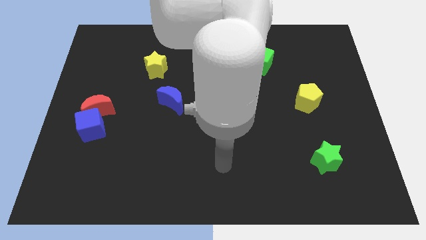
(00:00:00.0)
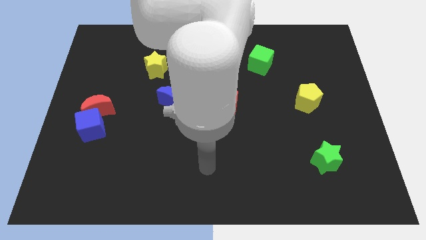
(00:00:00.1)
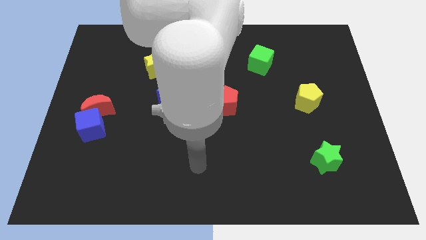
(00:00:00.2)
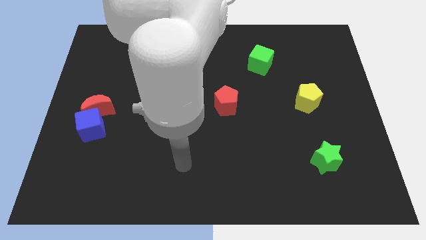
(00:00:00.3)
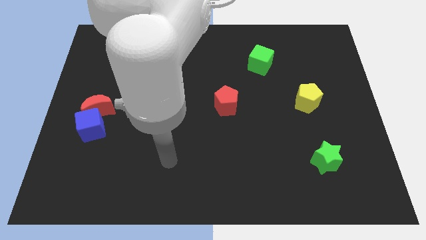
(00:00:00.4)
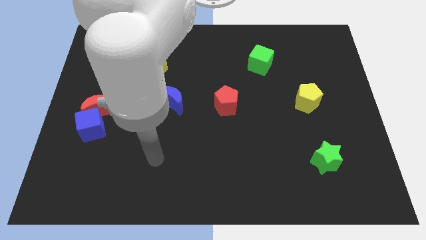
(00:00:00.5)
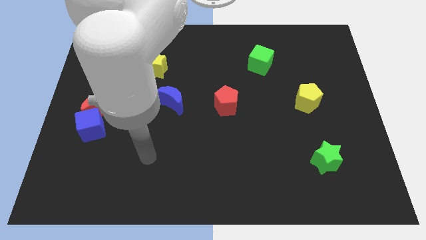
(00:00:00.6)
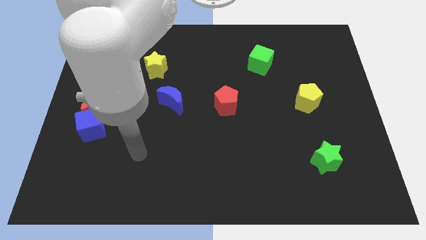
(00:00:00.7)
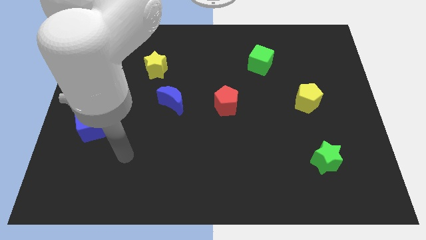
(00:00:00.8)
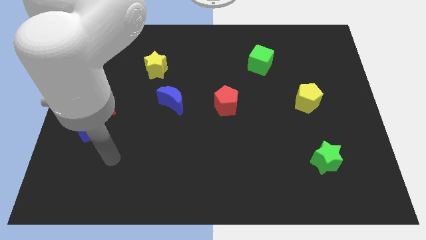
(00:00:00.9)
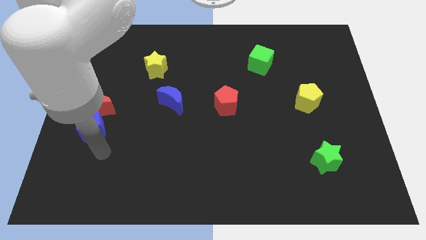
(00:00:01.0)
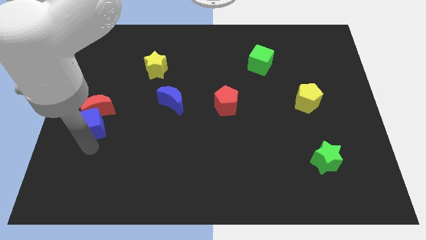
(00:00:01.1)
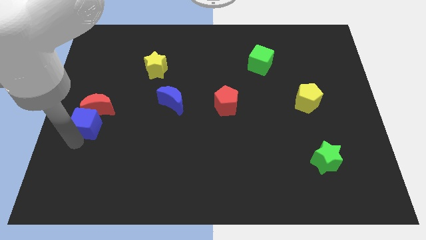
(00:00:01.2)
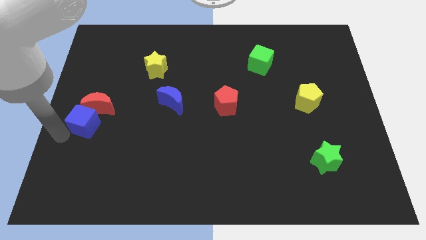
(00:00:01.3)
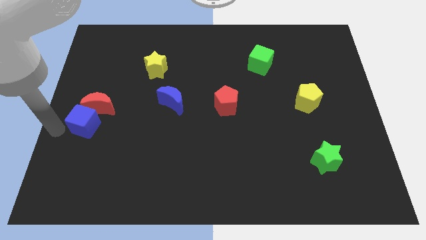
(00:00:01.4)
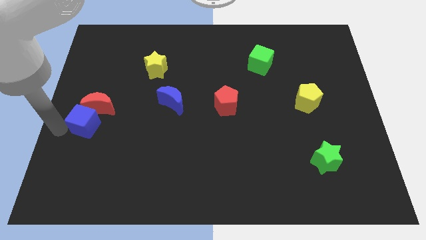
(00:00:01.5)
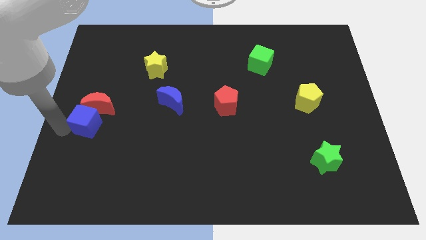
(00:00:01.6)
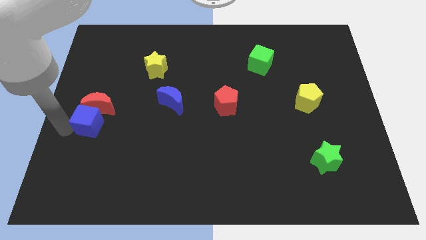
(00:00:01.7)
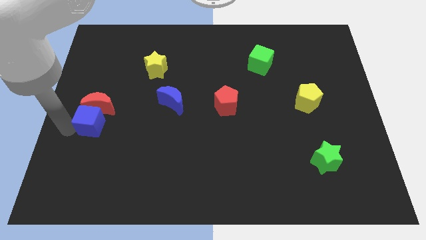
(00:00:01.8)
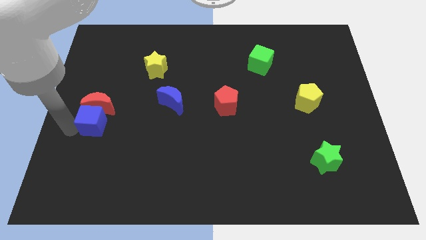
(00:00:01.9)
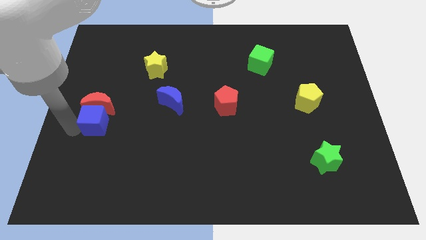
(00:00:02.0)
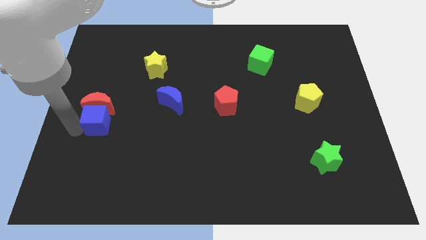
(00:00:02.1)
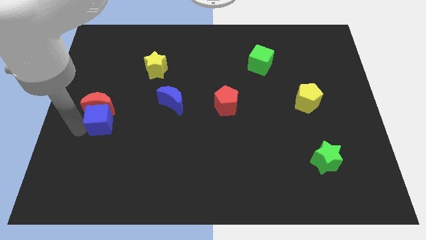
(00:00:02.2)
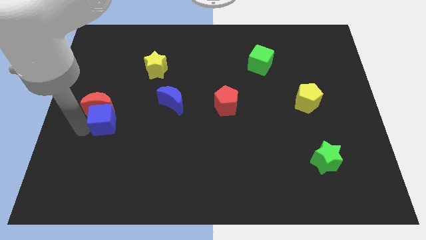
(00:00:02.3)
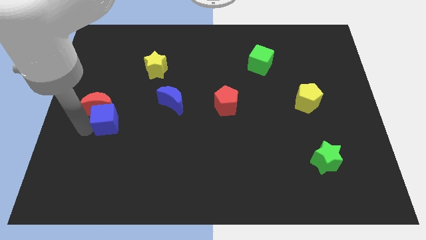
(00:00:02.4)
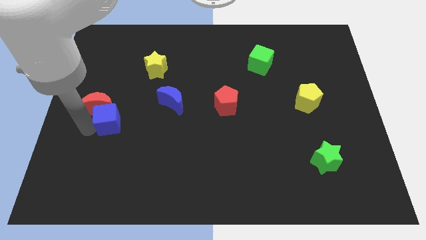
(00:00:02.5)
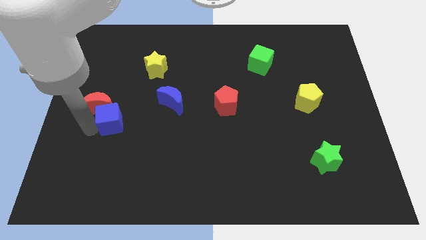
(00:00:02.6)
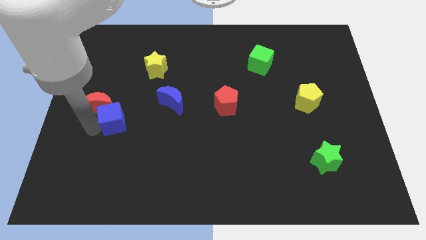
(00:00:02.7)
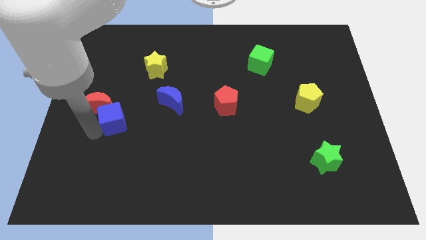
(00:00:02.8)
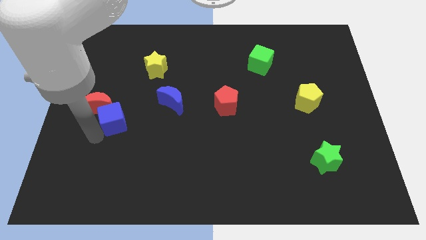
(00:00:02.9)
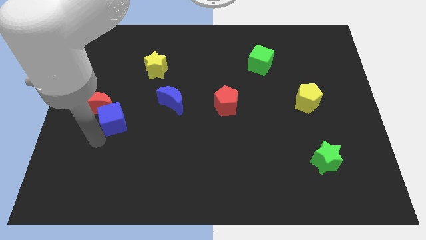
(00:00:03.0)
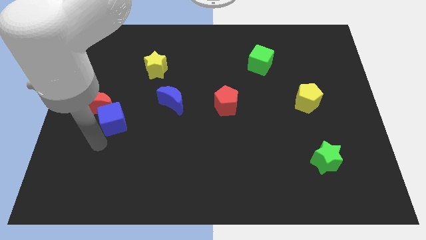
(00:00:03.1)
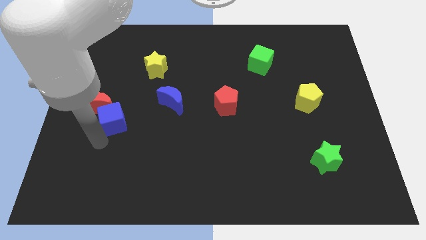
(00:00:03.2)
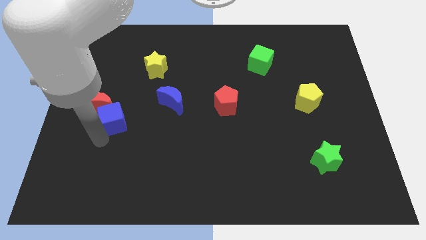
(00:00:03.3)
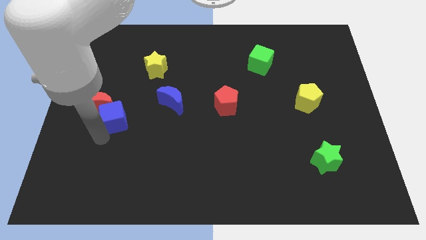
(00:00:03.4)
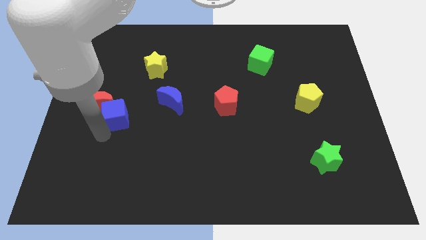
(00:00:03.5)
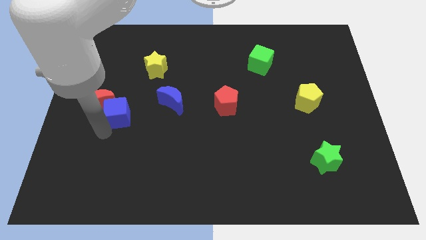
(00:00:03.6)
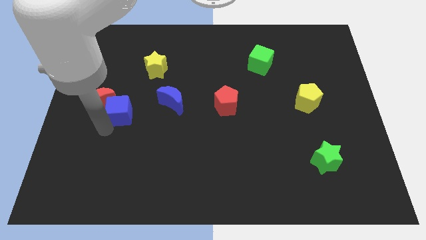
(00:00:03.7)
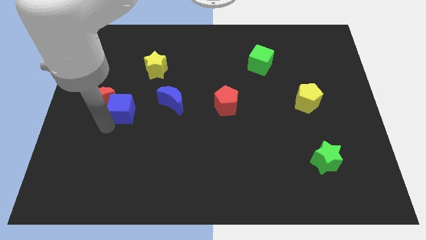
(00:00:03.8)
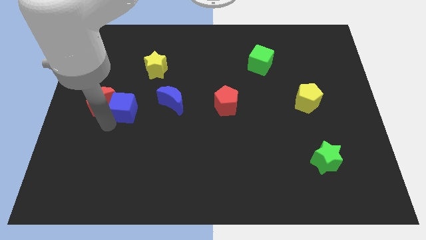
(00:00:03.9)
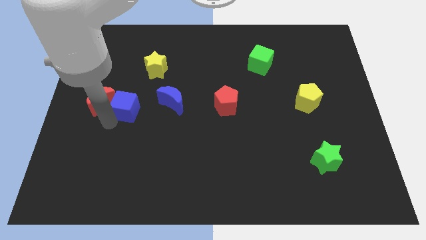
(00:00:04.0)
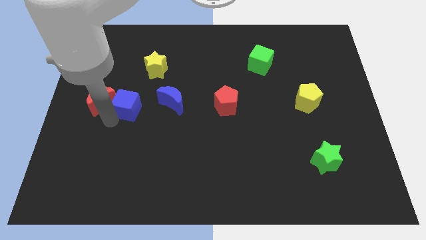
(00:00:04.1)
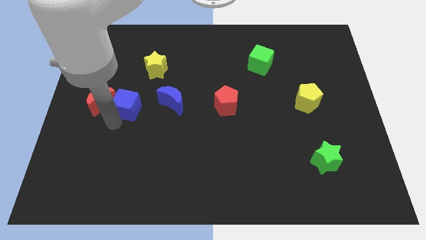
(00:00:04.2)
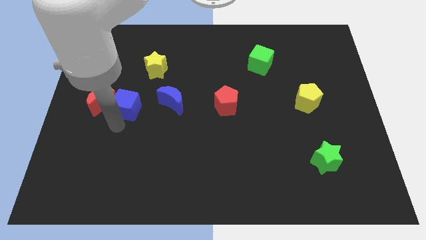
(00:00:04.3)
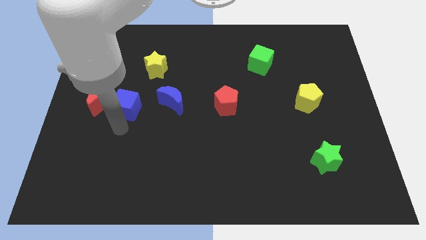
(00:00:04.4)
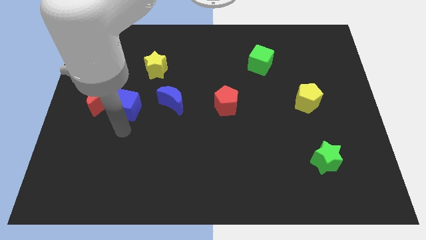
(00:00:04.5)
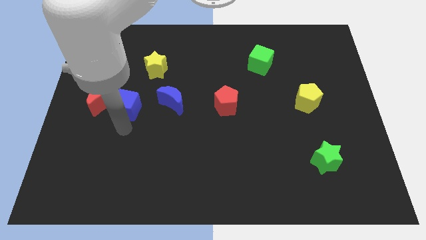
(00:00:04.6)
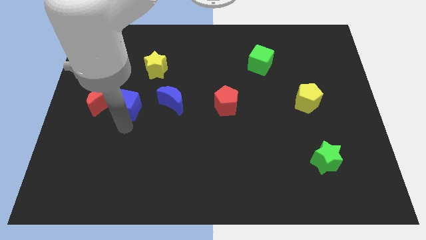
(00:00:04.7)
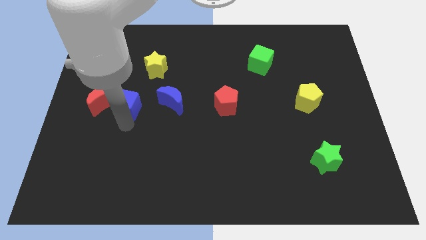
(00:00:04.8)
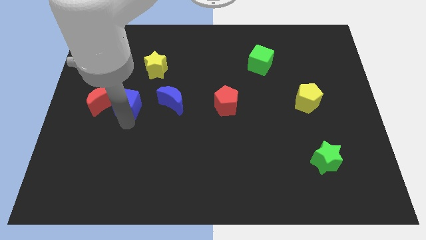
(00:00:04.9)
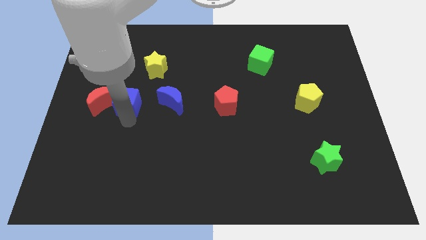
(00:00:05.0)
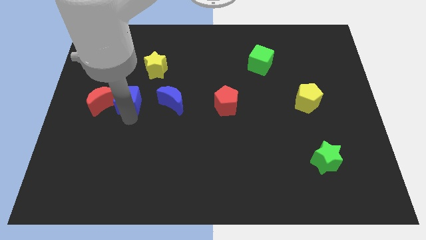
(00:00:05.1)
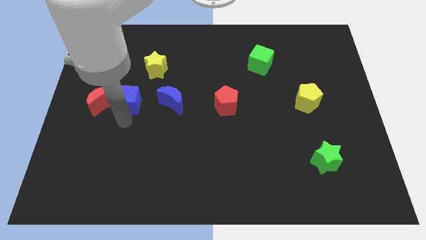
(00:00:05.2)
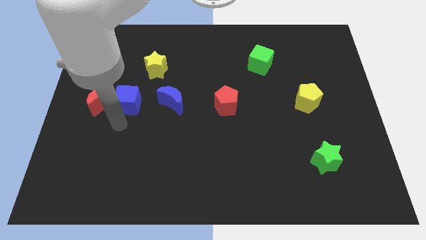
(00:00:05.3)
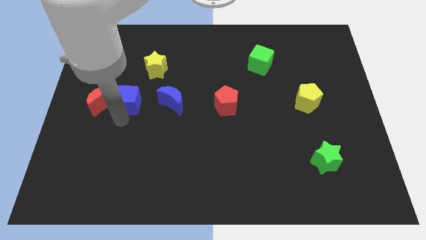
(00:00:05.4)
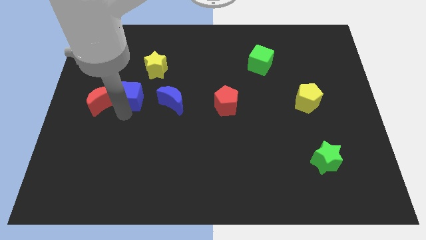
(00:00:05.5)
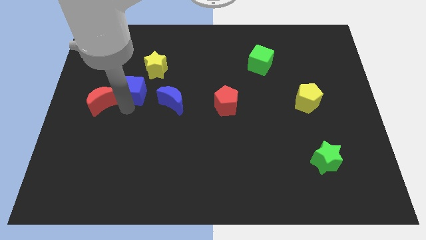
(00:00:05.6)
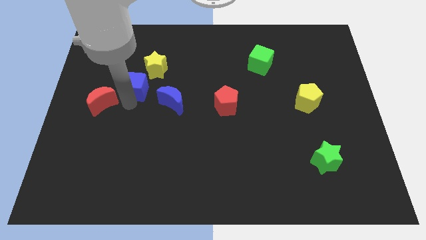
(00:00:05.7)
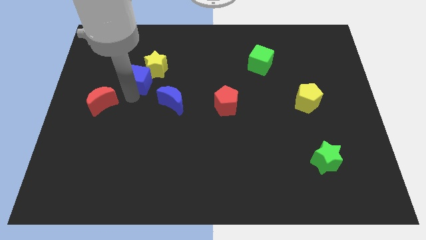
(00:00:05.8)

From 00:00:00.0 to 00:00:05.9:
slide the blue cube next to the yellow star

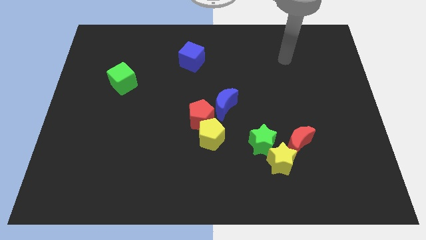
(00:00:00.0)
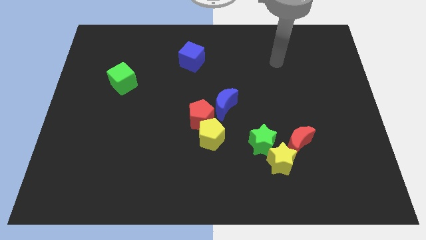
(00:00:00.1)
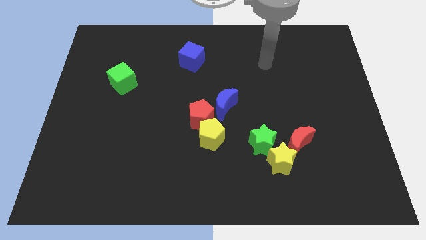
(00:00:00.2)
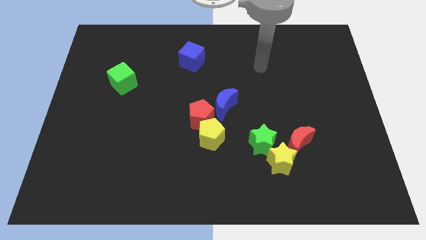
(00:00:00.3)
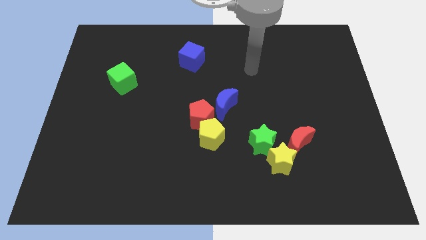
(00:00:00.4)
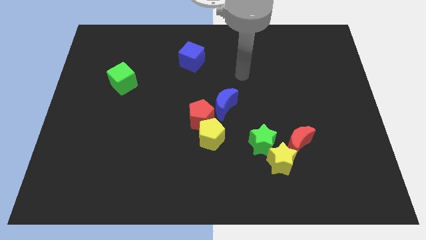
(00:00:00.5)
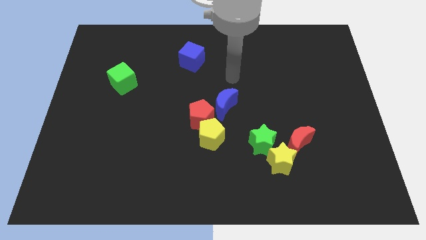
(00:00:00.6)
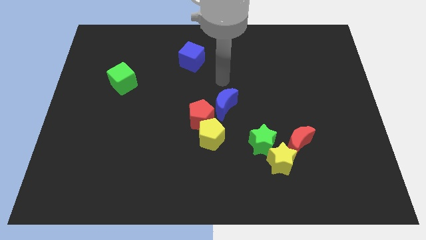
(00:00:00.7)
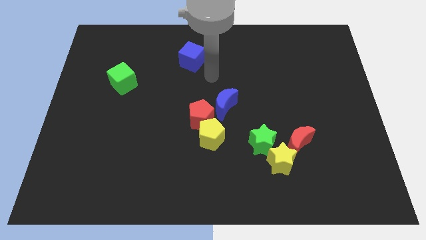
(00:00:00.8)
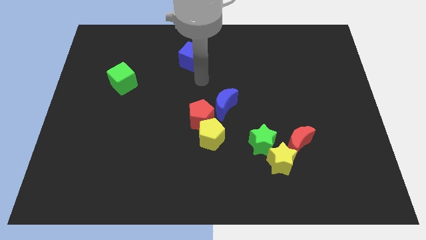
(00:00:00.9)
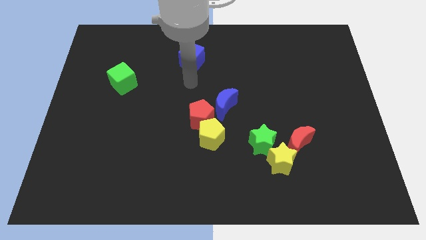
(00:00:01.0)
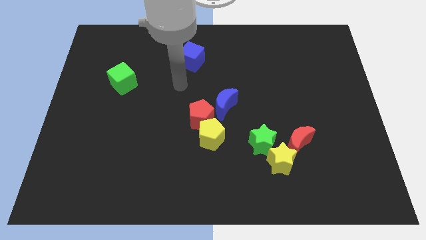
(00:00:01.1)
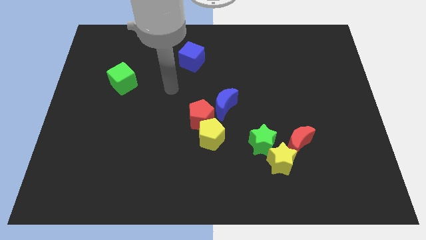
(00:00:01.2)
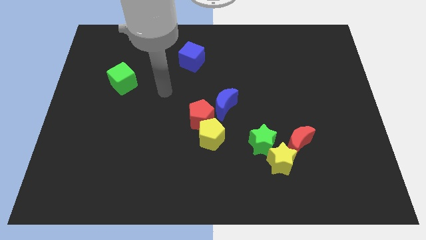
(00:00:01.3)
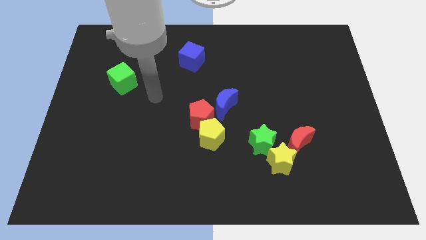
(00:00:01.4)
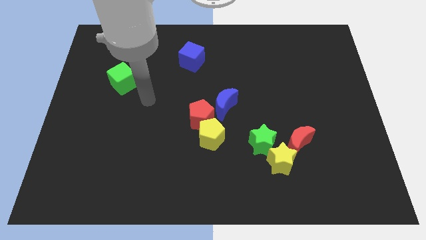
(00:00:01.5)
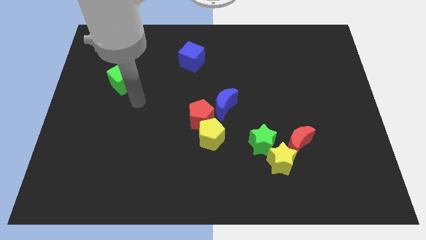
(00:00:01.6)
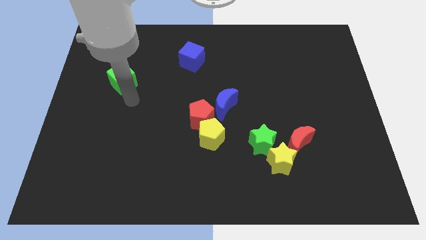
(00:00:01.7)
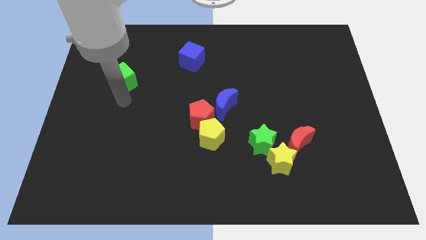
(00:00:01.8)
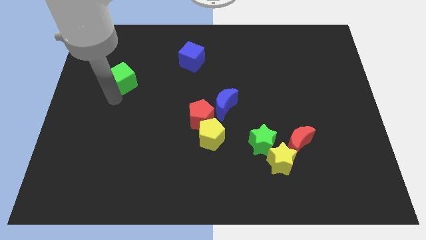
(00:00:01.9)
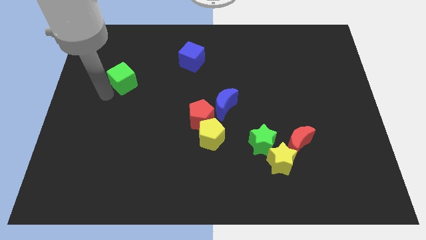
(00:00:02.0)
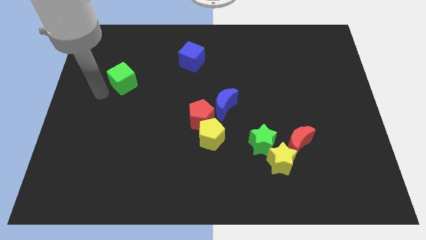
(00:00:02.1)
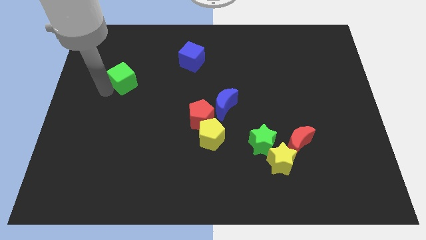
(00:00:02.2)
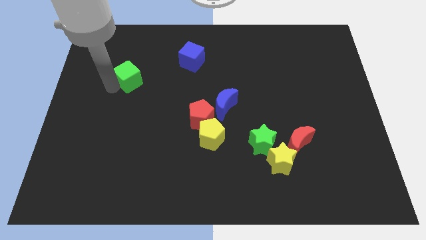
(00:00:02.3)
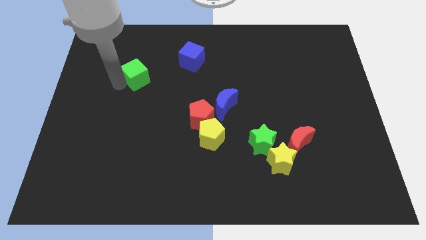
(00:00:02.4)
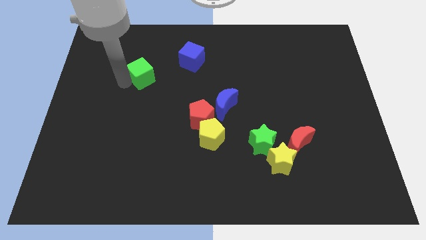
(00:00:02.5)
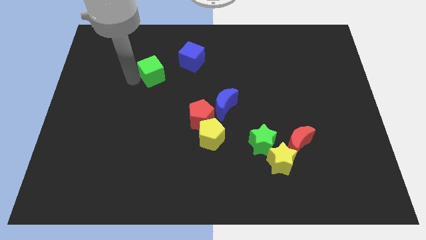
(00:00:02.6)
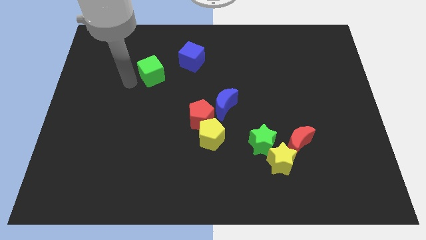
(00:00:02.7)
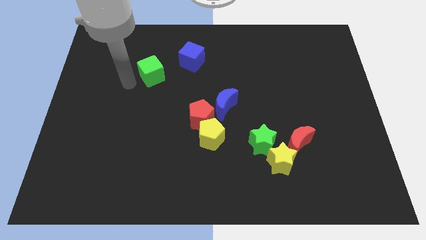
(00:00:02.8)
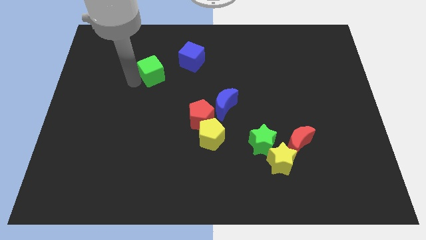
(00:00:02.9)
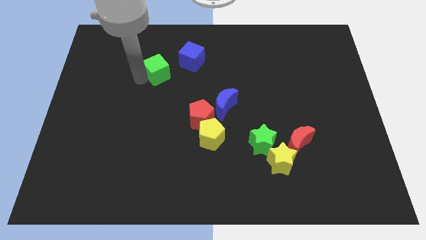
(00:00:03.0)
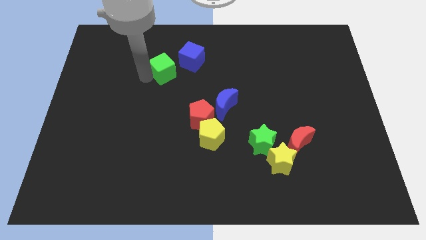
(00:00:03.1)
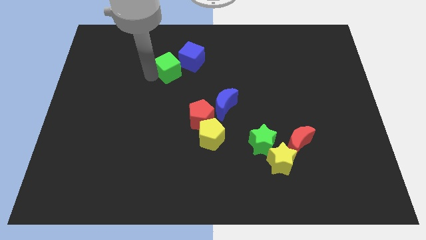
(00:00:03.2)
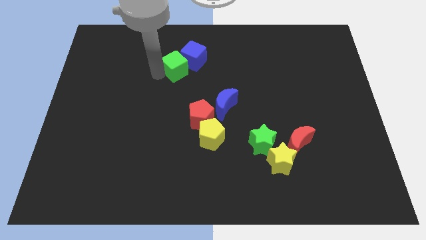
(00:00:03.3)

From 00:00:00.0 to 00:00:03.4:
slide the green cube next to the blue cube
